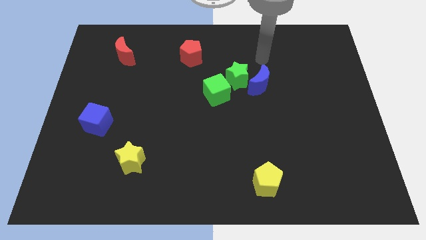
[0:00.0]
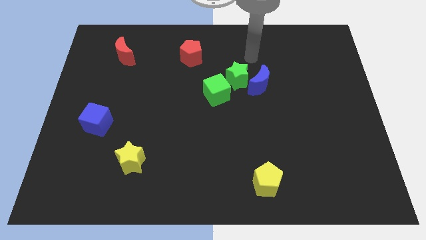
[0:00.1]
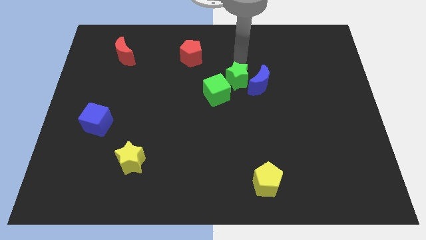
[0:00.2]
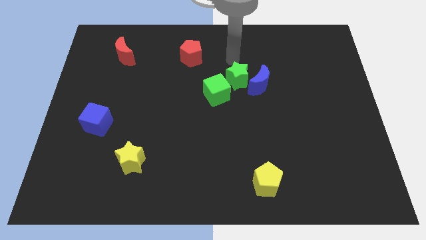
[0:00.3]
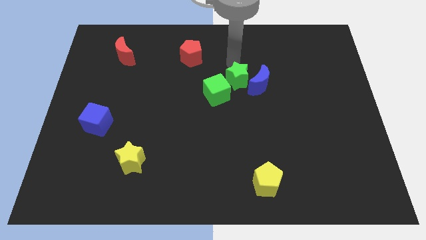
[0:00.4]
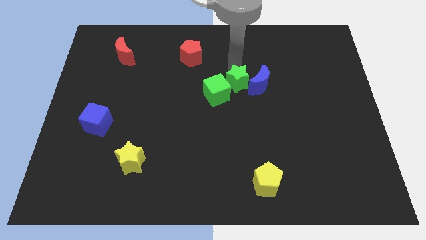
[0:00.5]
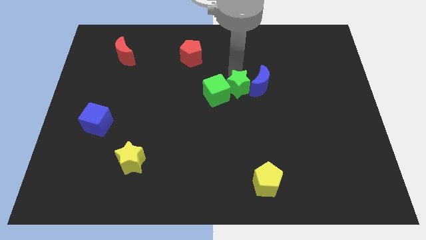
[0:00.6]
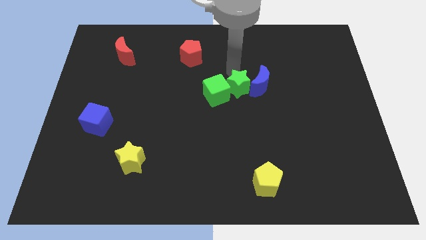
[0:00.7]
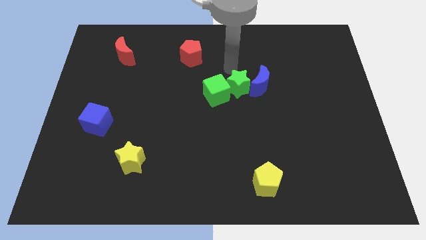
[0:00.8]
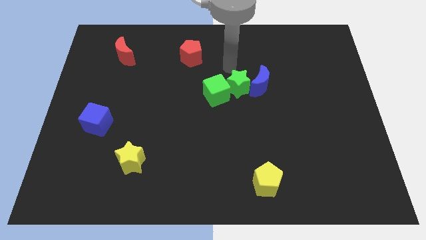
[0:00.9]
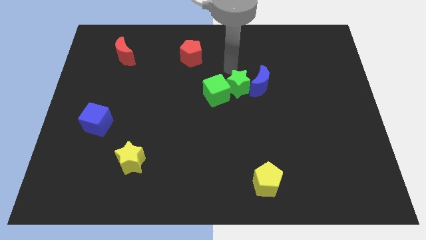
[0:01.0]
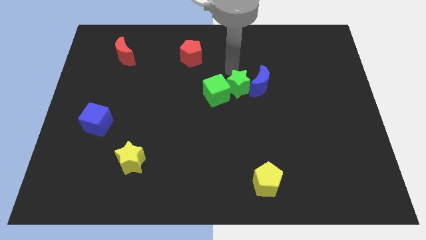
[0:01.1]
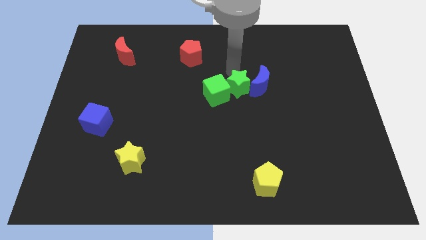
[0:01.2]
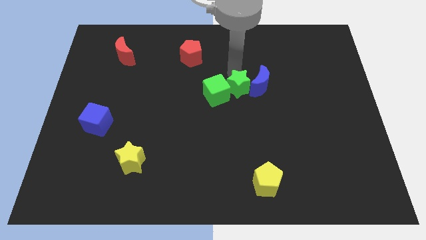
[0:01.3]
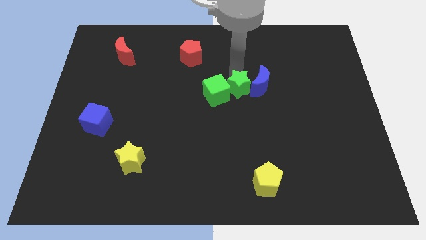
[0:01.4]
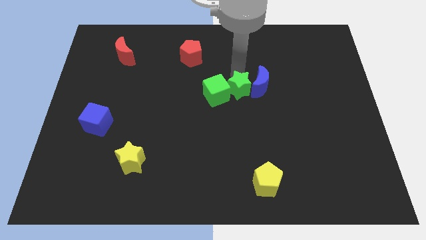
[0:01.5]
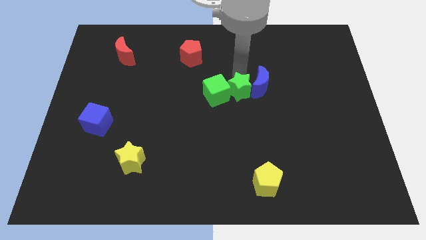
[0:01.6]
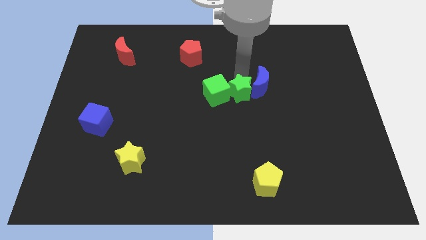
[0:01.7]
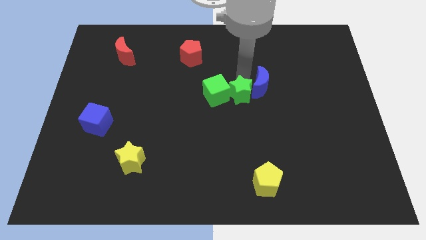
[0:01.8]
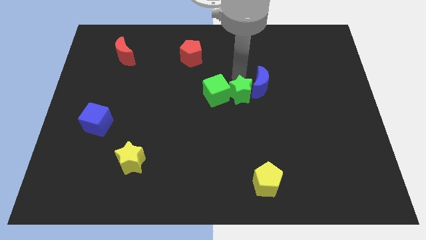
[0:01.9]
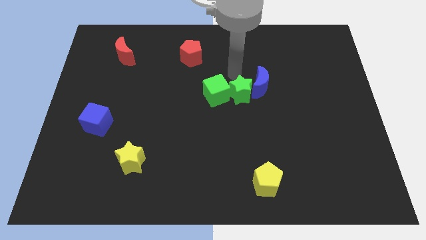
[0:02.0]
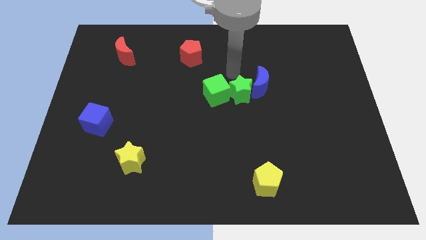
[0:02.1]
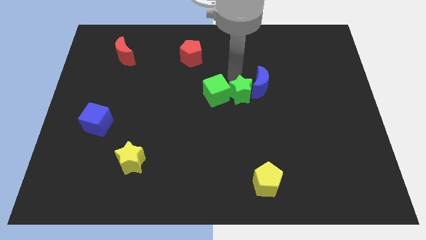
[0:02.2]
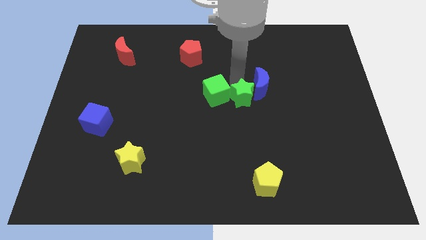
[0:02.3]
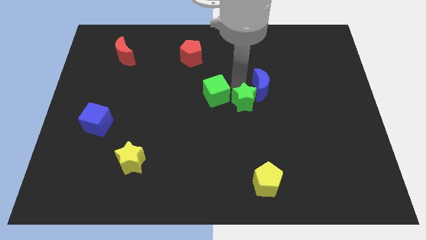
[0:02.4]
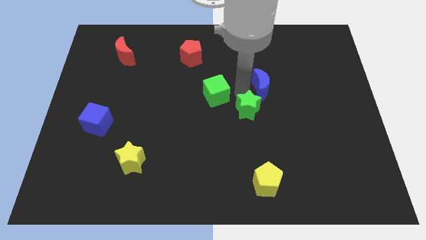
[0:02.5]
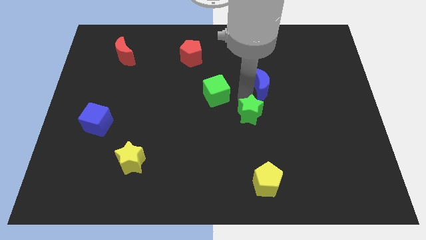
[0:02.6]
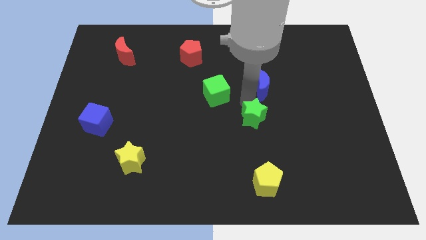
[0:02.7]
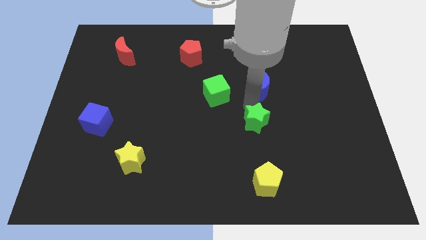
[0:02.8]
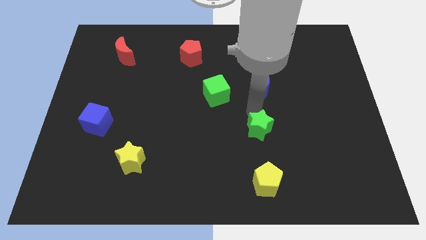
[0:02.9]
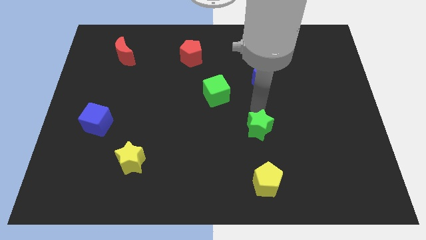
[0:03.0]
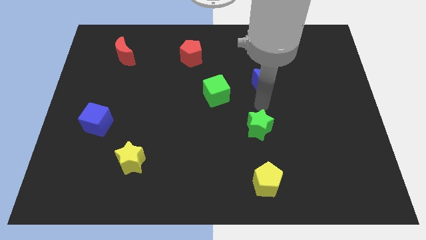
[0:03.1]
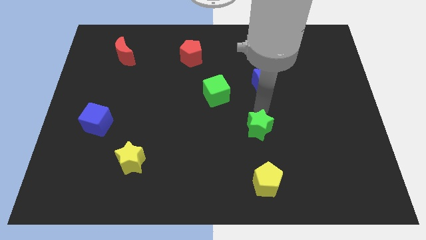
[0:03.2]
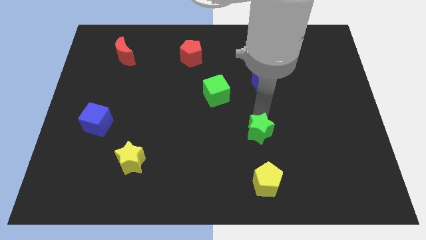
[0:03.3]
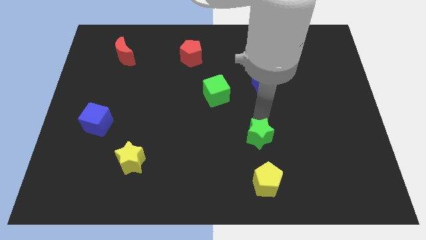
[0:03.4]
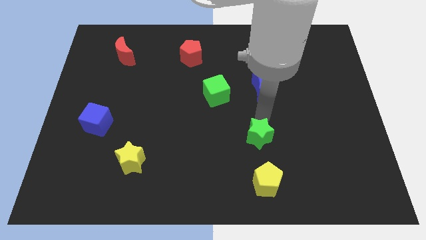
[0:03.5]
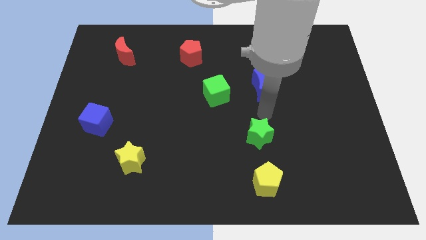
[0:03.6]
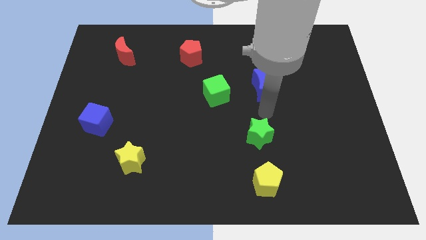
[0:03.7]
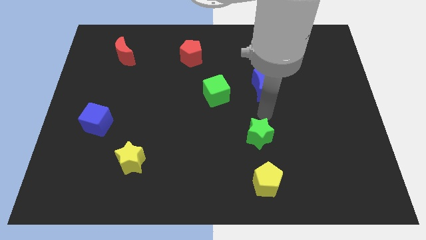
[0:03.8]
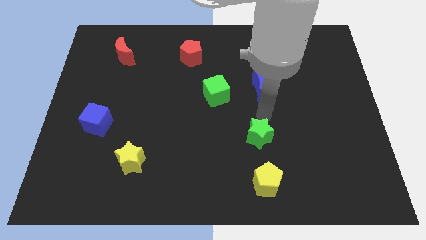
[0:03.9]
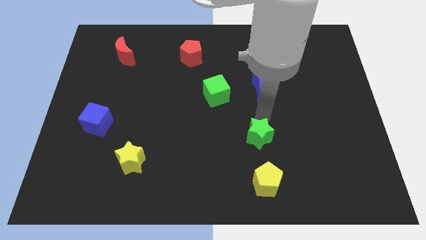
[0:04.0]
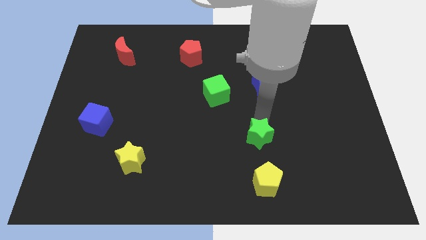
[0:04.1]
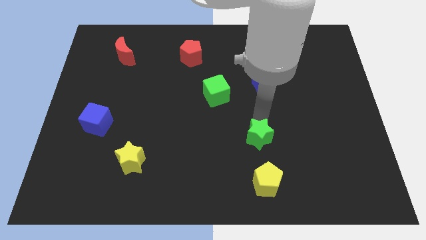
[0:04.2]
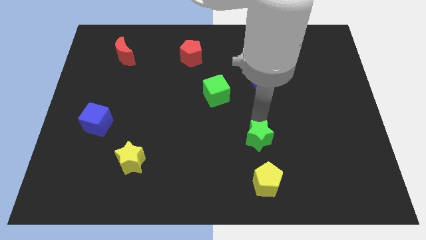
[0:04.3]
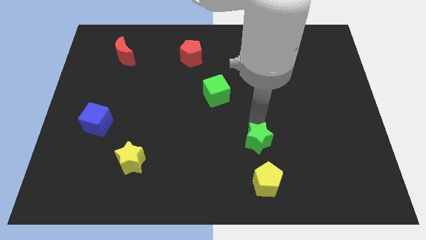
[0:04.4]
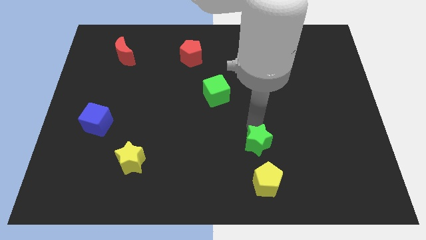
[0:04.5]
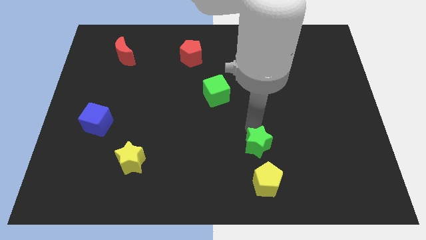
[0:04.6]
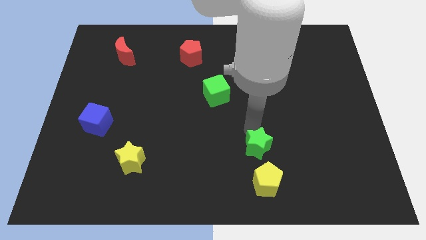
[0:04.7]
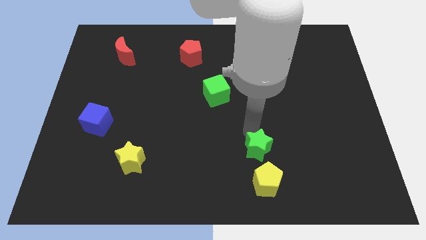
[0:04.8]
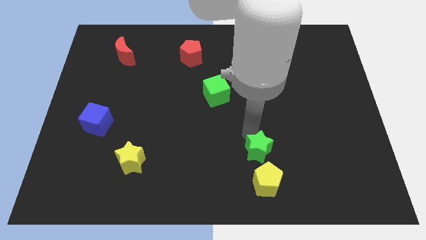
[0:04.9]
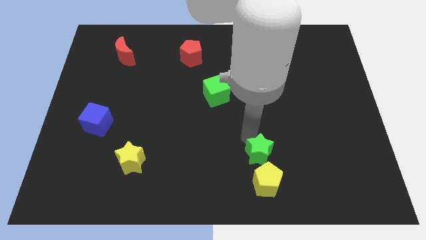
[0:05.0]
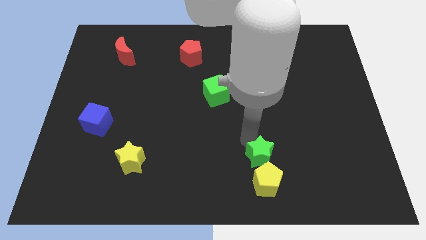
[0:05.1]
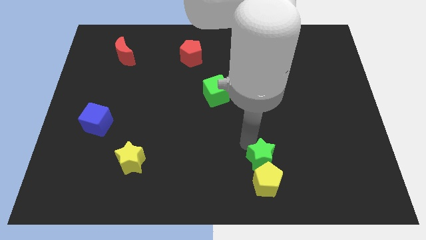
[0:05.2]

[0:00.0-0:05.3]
push the green star to the yellow pentagon

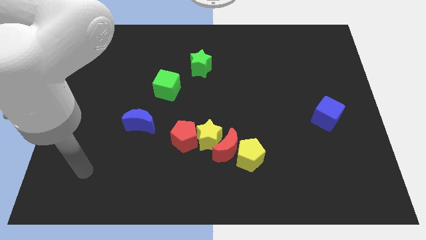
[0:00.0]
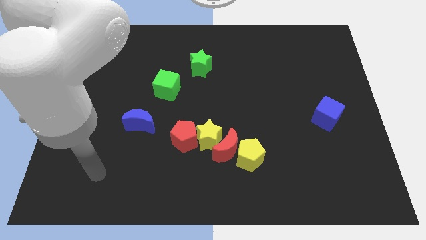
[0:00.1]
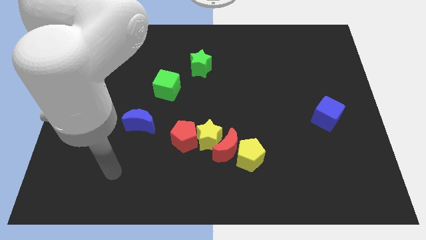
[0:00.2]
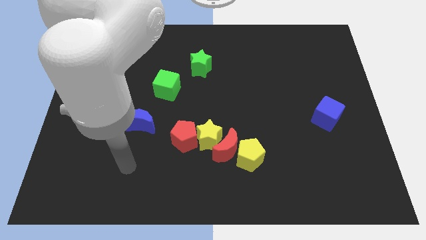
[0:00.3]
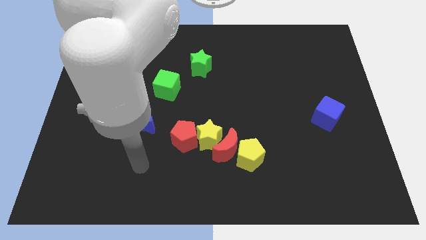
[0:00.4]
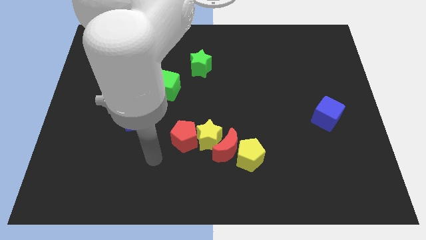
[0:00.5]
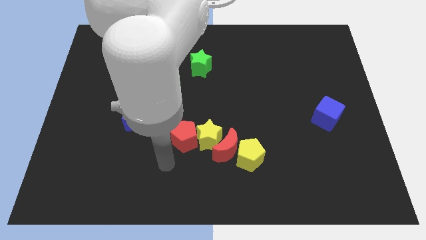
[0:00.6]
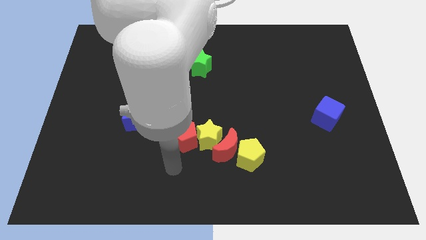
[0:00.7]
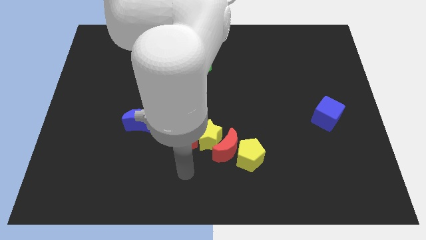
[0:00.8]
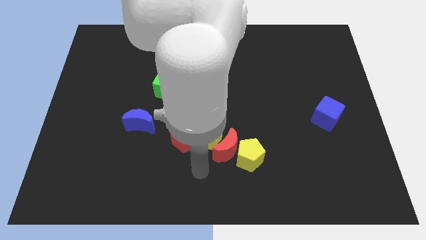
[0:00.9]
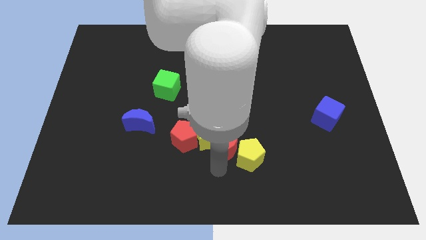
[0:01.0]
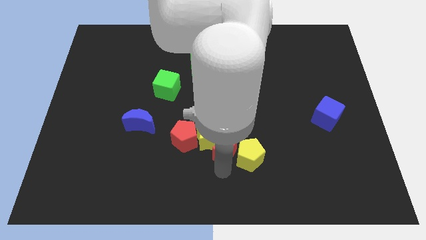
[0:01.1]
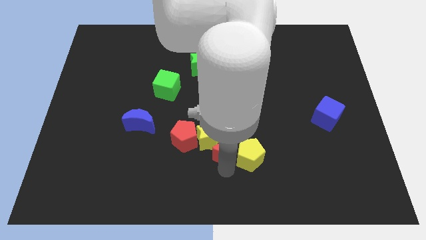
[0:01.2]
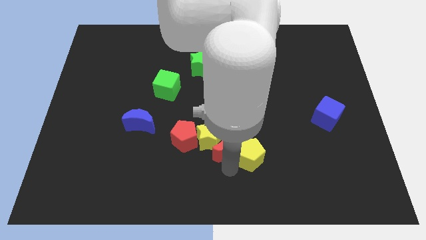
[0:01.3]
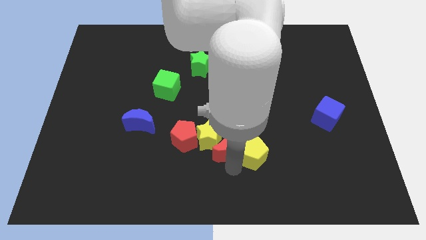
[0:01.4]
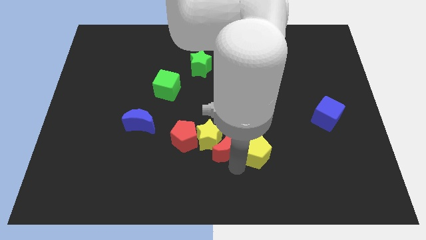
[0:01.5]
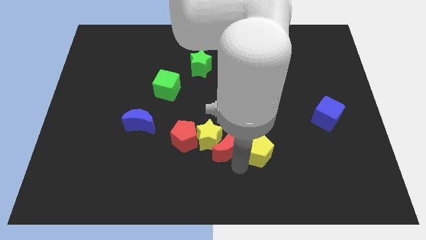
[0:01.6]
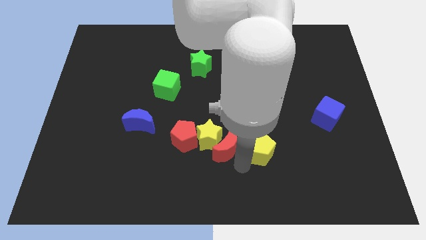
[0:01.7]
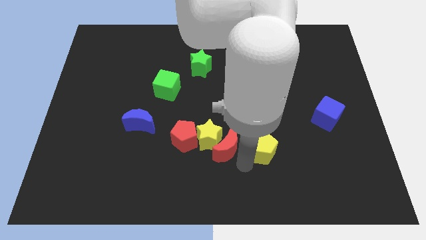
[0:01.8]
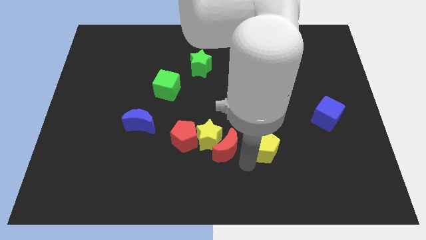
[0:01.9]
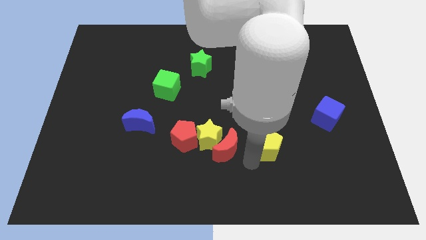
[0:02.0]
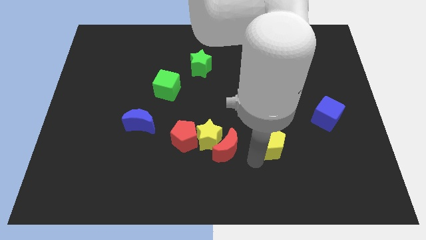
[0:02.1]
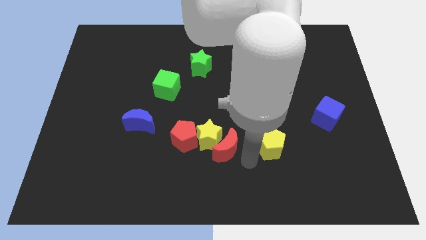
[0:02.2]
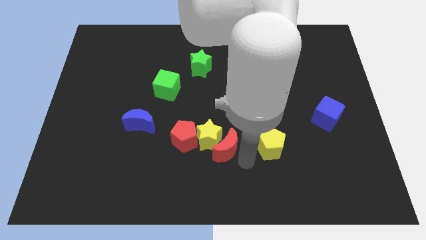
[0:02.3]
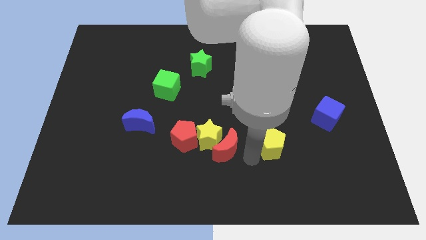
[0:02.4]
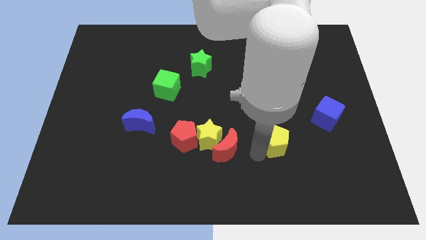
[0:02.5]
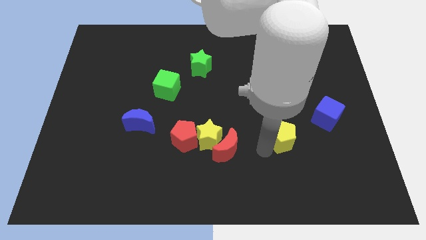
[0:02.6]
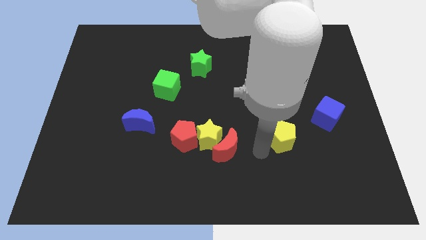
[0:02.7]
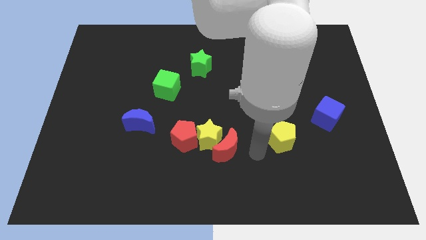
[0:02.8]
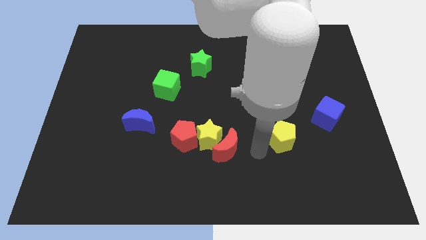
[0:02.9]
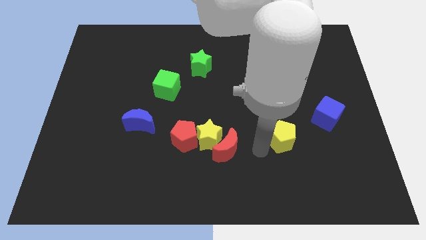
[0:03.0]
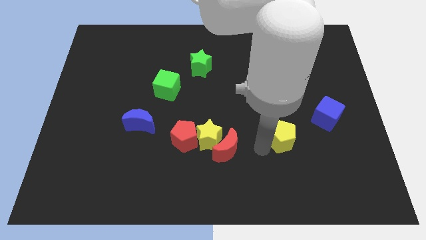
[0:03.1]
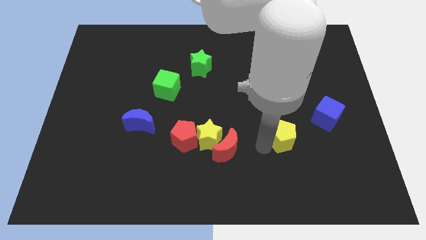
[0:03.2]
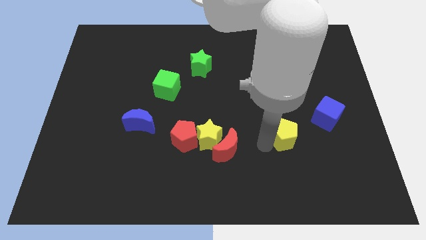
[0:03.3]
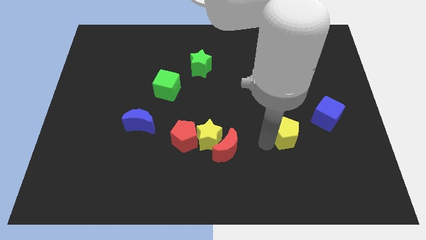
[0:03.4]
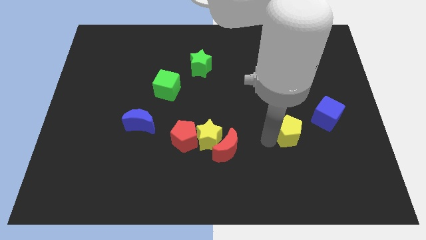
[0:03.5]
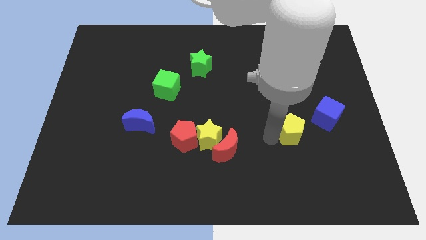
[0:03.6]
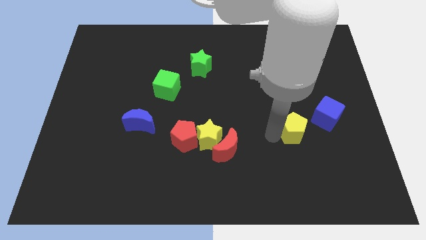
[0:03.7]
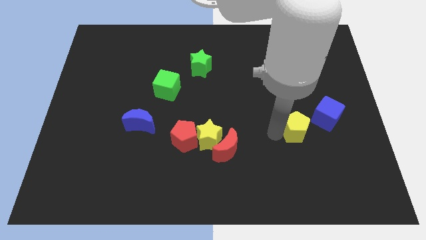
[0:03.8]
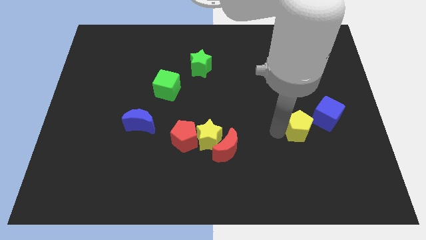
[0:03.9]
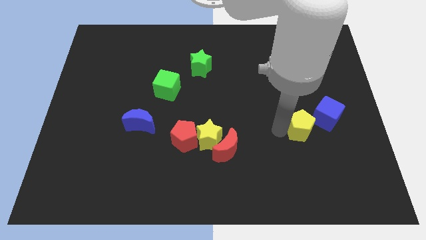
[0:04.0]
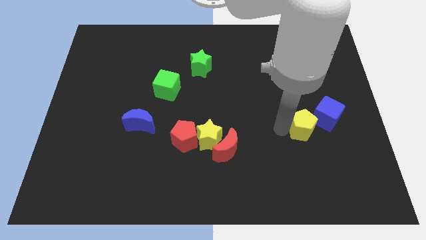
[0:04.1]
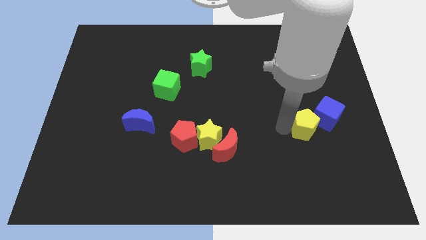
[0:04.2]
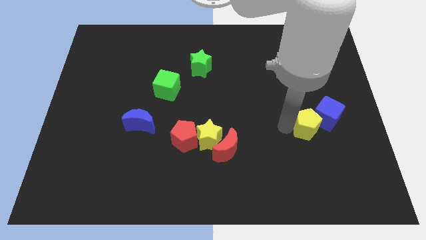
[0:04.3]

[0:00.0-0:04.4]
slide the yellow pentagon next to the blue cube
